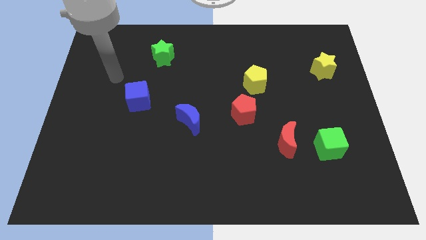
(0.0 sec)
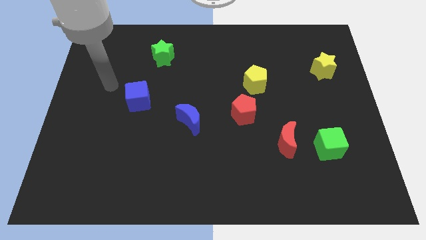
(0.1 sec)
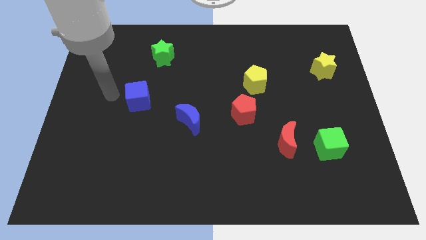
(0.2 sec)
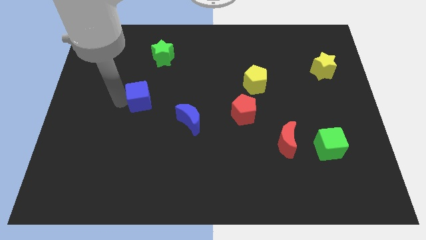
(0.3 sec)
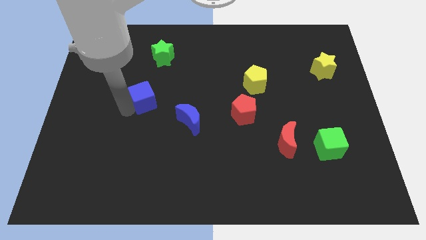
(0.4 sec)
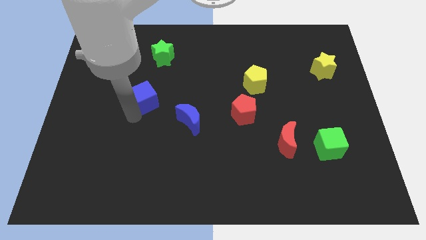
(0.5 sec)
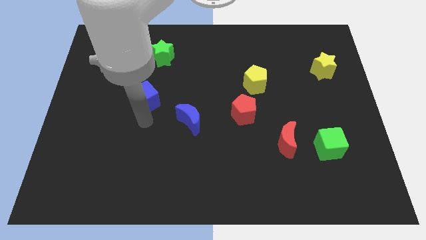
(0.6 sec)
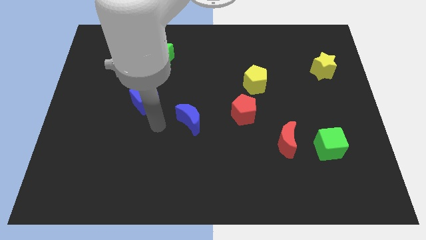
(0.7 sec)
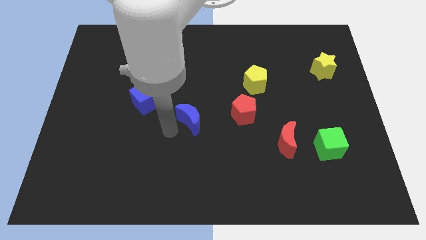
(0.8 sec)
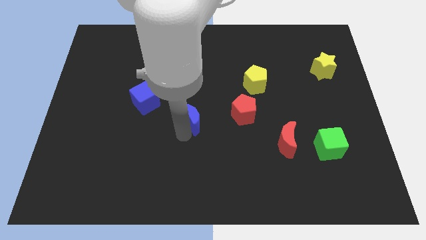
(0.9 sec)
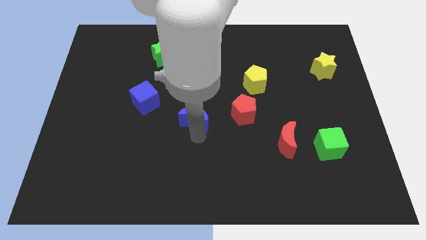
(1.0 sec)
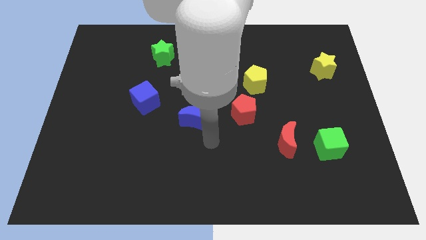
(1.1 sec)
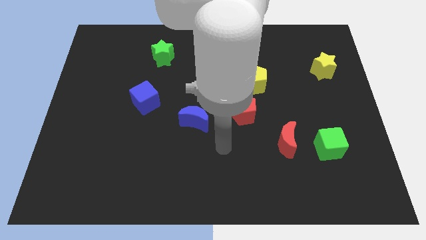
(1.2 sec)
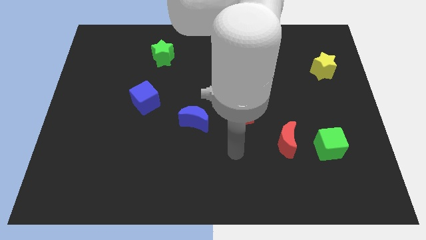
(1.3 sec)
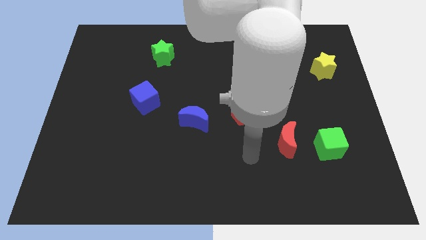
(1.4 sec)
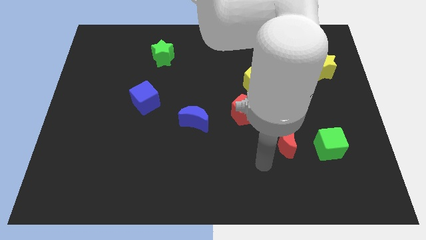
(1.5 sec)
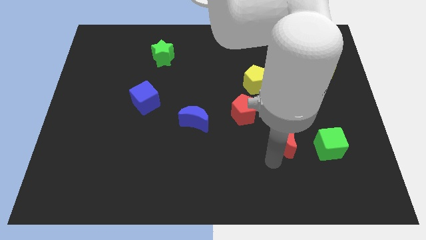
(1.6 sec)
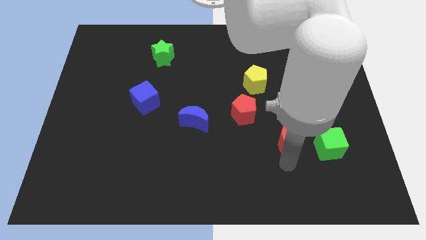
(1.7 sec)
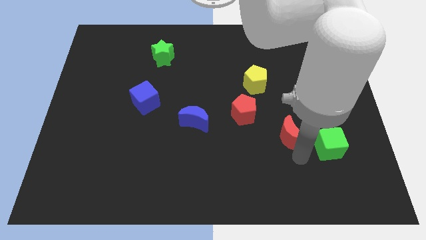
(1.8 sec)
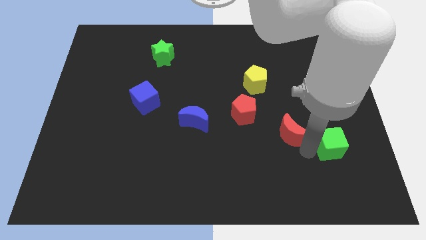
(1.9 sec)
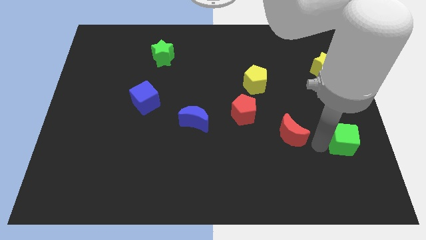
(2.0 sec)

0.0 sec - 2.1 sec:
separate the red moon from the green cube

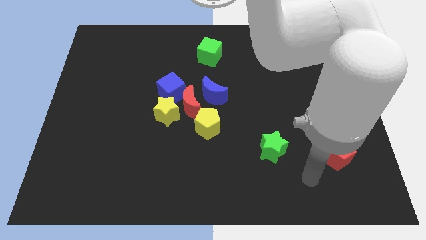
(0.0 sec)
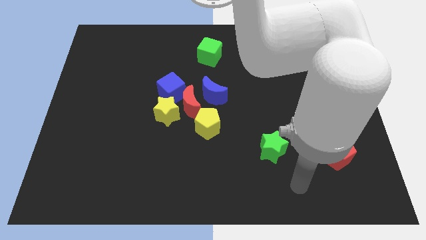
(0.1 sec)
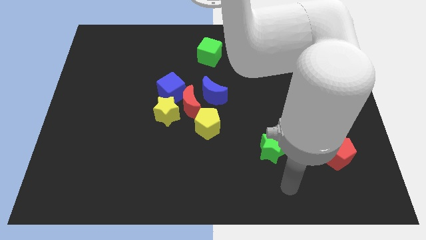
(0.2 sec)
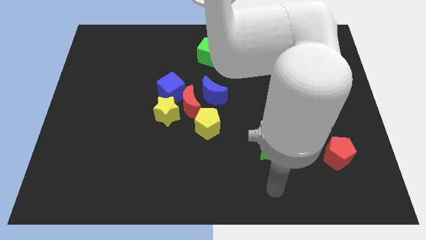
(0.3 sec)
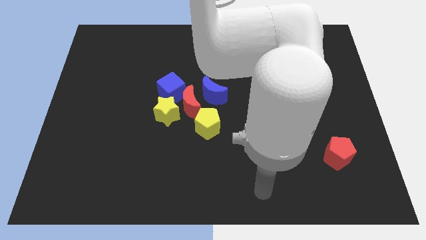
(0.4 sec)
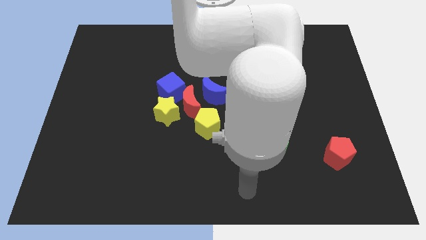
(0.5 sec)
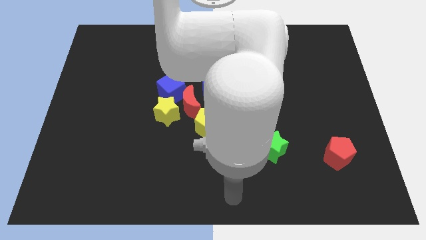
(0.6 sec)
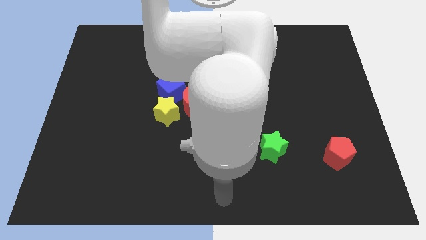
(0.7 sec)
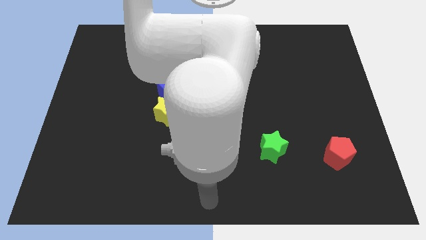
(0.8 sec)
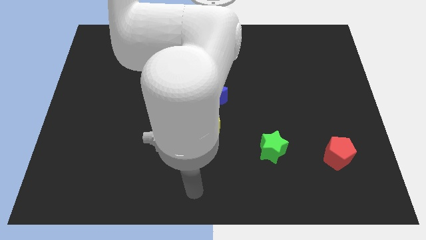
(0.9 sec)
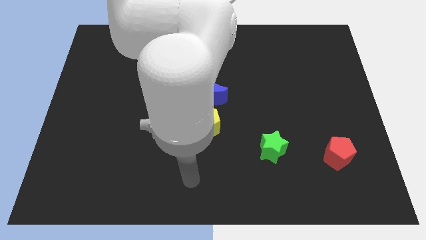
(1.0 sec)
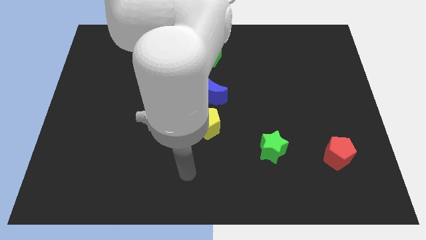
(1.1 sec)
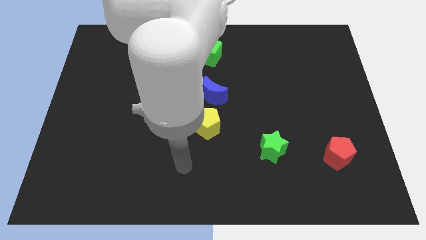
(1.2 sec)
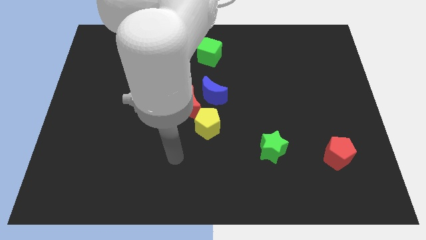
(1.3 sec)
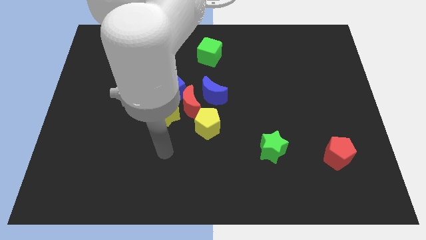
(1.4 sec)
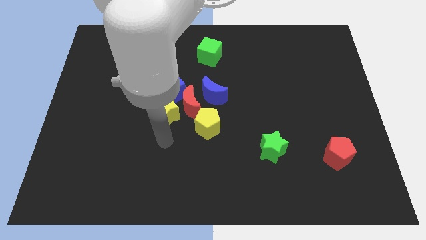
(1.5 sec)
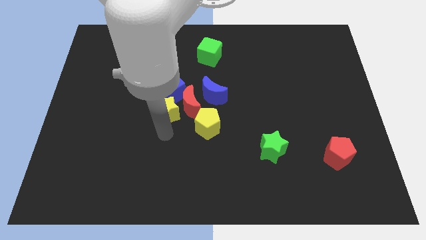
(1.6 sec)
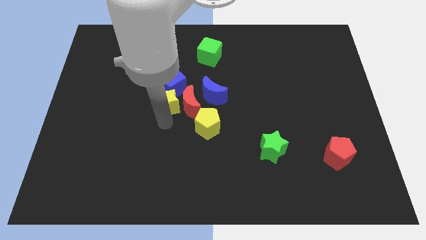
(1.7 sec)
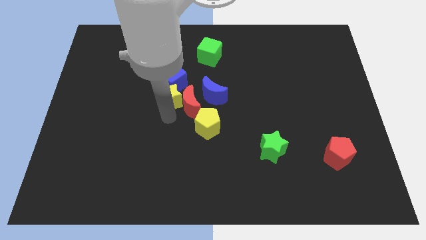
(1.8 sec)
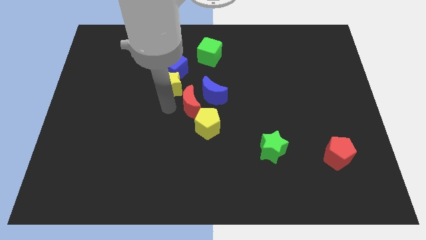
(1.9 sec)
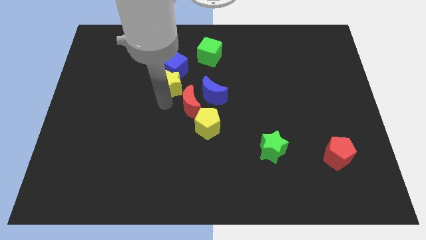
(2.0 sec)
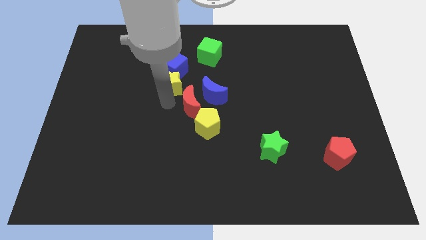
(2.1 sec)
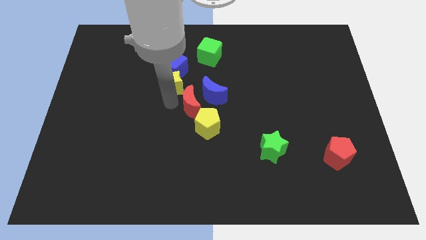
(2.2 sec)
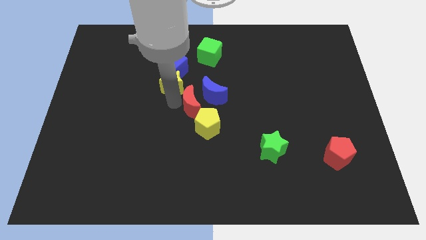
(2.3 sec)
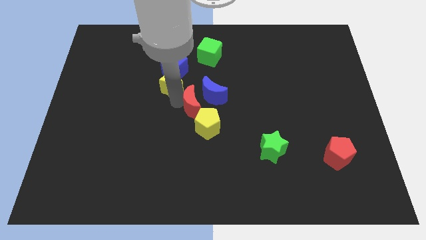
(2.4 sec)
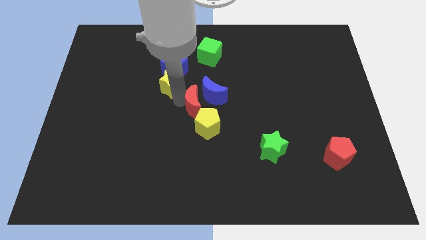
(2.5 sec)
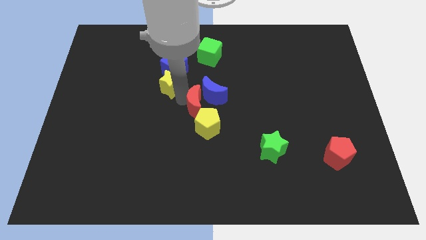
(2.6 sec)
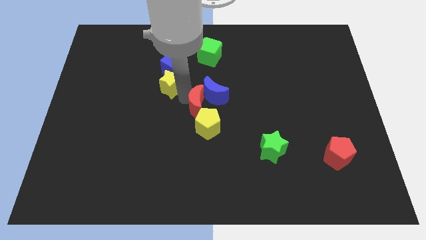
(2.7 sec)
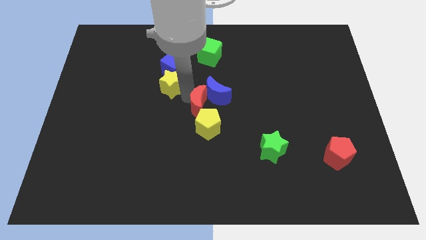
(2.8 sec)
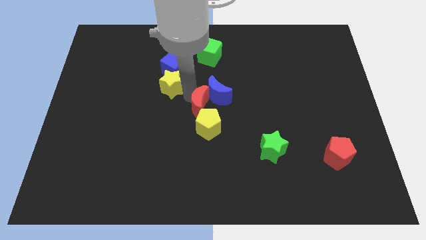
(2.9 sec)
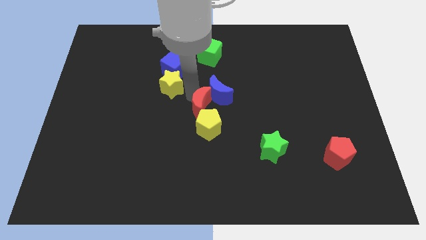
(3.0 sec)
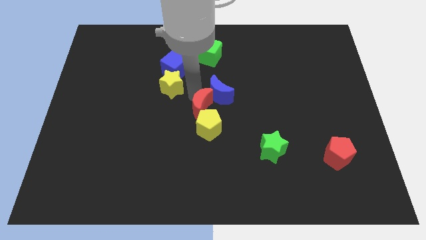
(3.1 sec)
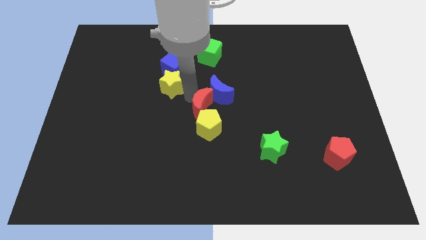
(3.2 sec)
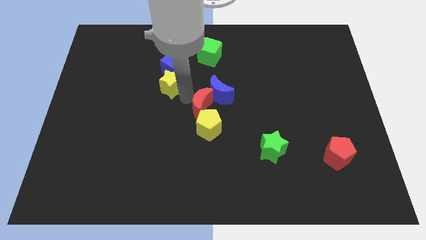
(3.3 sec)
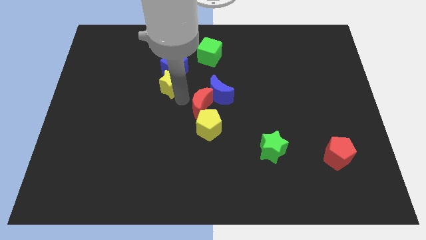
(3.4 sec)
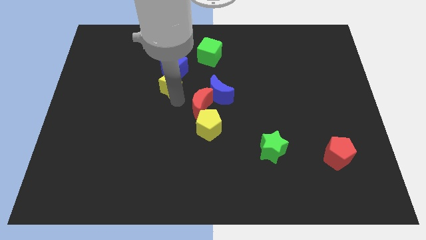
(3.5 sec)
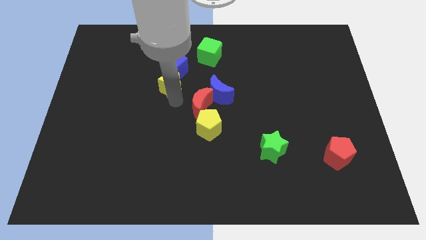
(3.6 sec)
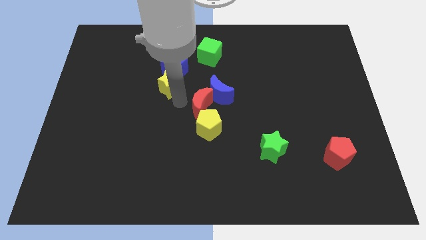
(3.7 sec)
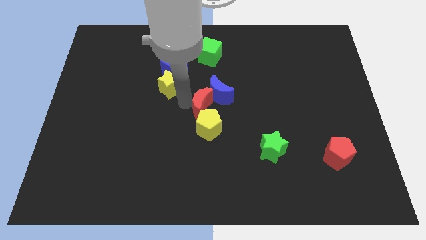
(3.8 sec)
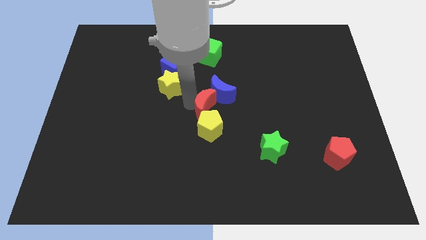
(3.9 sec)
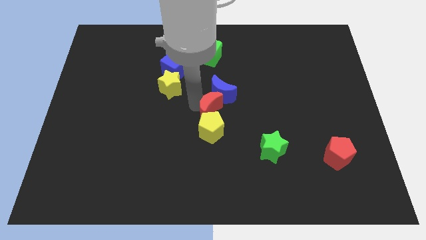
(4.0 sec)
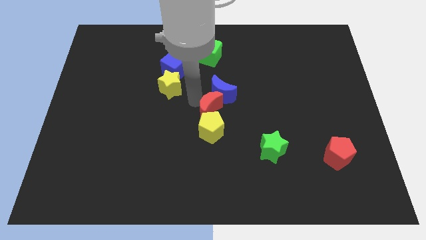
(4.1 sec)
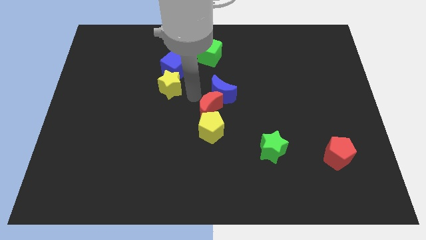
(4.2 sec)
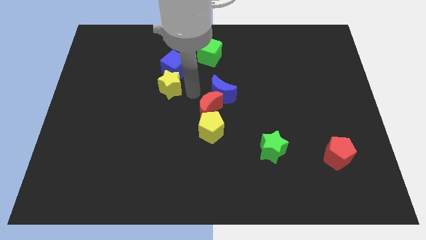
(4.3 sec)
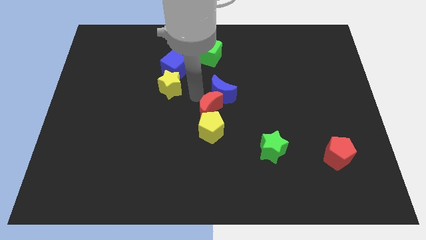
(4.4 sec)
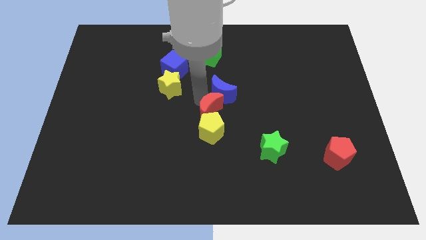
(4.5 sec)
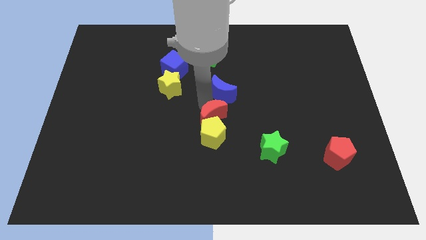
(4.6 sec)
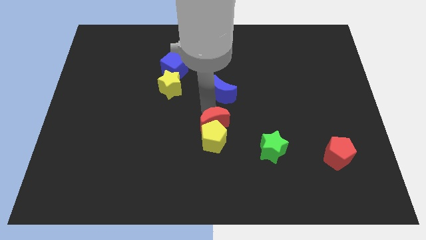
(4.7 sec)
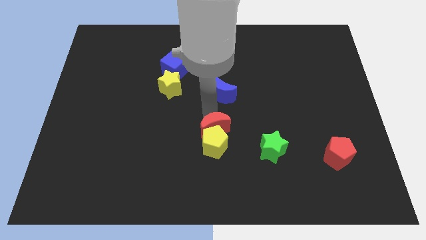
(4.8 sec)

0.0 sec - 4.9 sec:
move the red moon away from the group of blocks

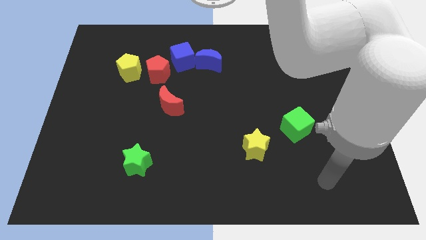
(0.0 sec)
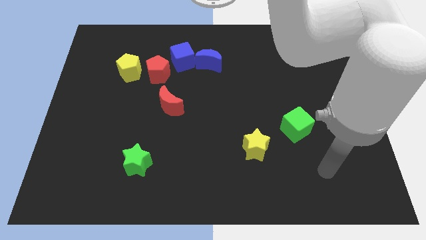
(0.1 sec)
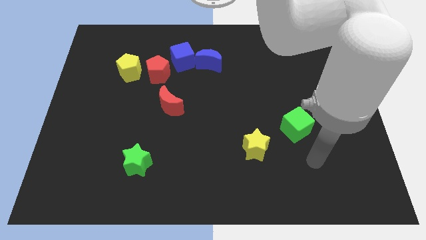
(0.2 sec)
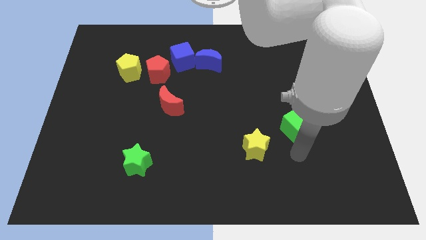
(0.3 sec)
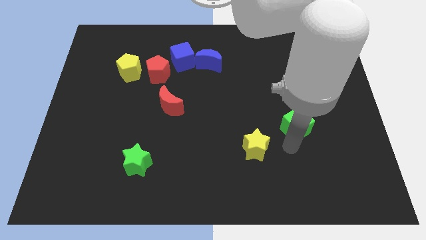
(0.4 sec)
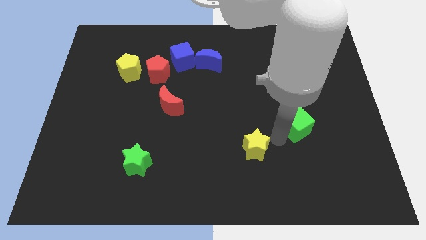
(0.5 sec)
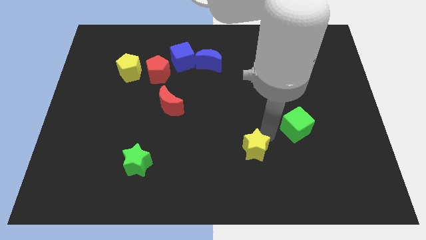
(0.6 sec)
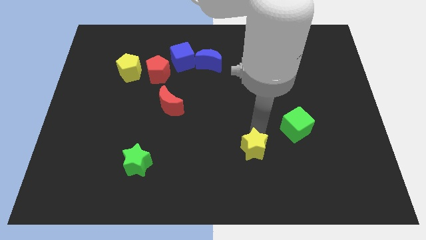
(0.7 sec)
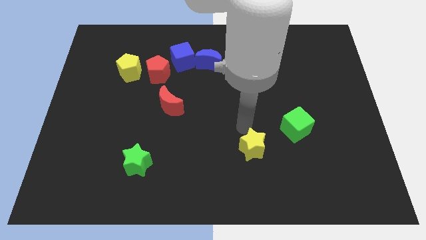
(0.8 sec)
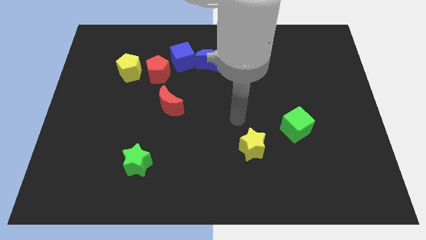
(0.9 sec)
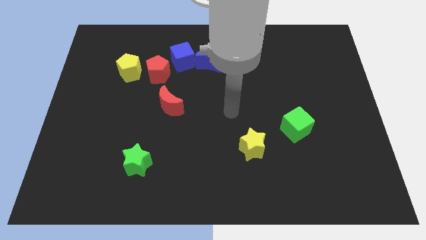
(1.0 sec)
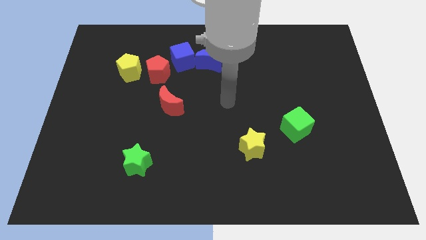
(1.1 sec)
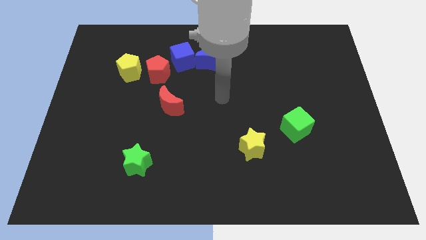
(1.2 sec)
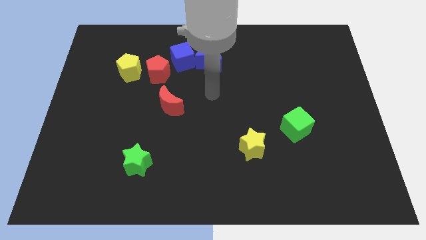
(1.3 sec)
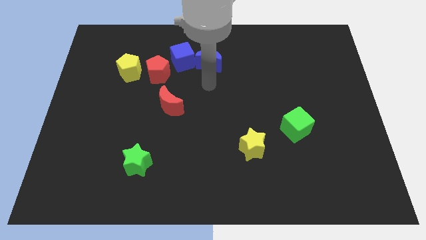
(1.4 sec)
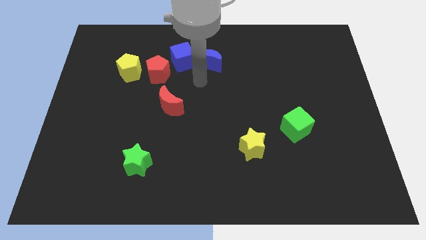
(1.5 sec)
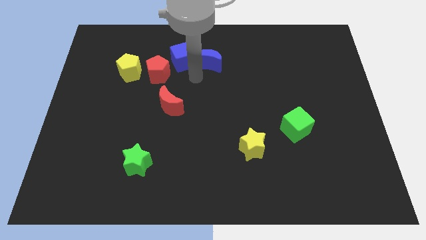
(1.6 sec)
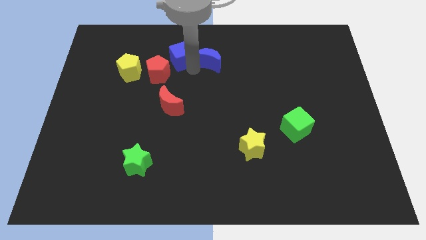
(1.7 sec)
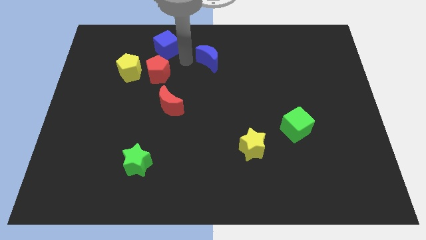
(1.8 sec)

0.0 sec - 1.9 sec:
pull the blue moon apart from the blue cube

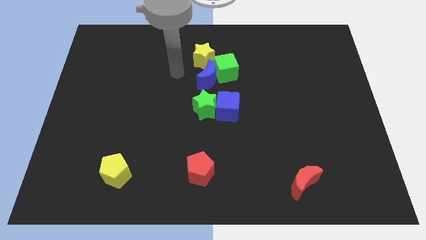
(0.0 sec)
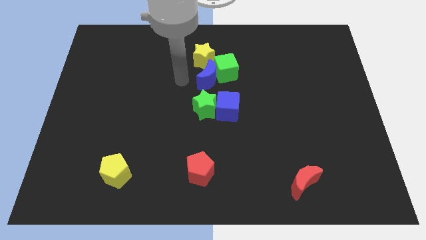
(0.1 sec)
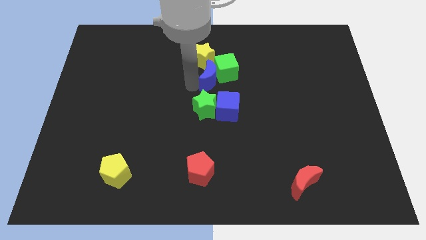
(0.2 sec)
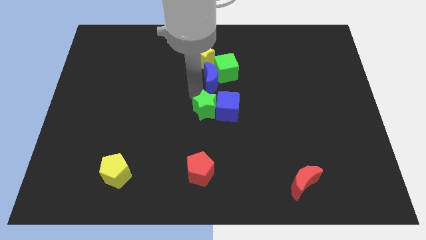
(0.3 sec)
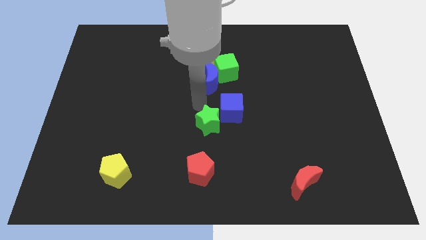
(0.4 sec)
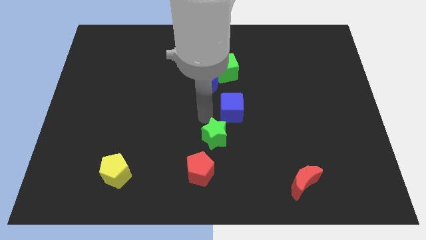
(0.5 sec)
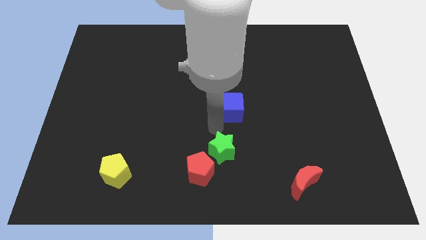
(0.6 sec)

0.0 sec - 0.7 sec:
move the blue cube away from the green star
